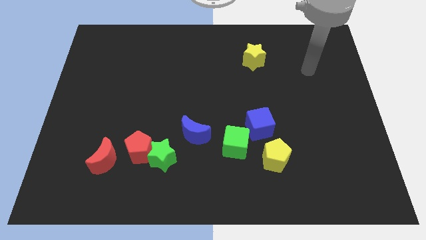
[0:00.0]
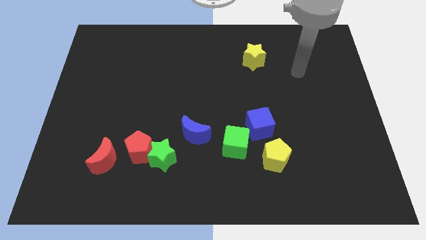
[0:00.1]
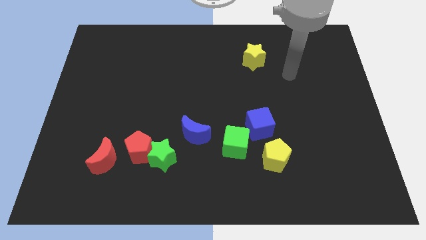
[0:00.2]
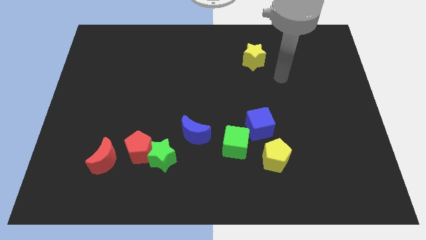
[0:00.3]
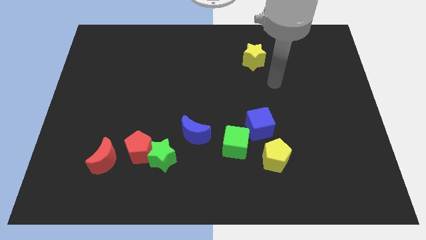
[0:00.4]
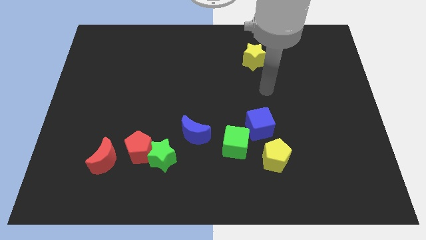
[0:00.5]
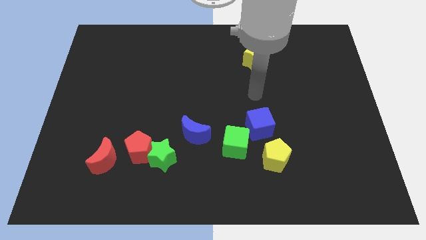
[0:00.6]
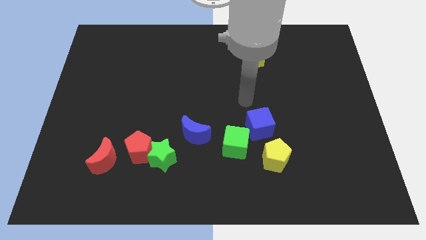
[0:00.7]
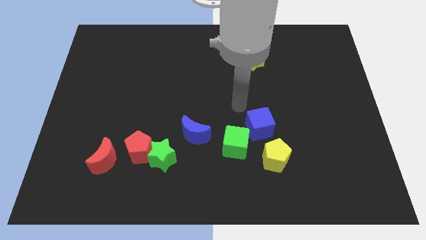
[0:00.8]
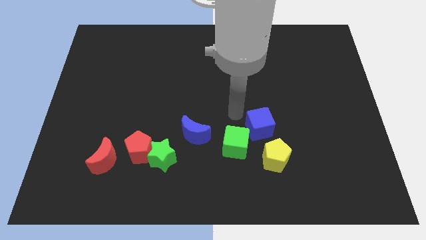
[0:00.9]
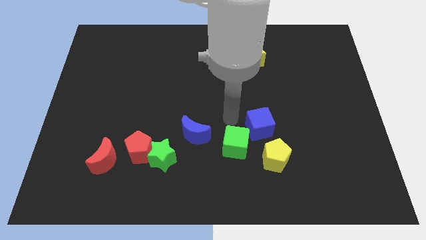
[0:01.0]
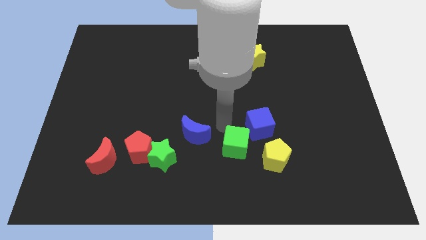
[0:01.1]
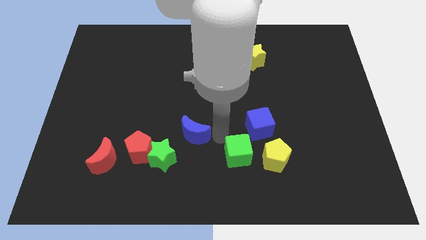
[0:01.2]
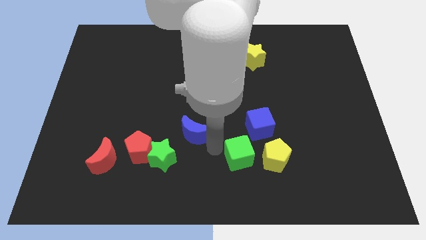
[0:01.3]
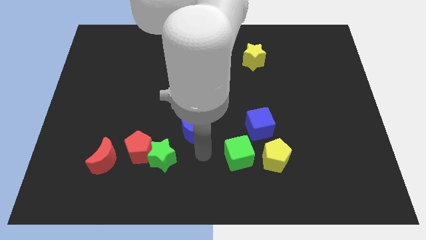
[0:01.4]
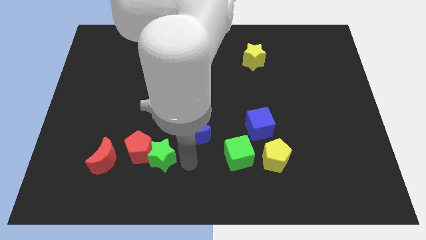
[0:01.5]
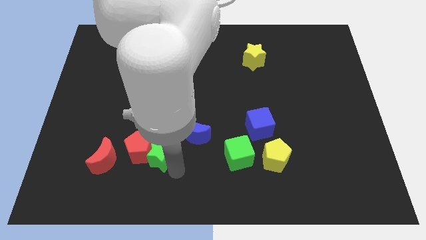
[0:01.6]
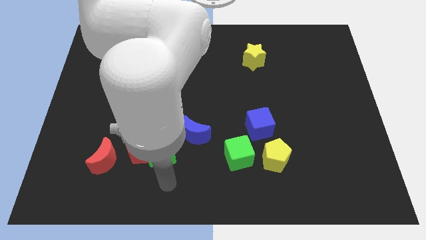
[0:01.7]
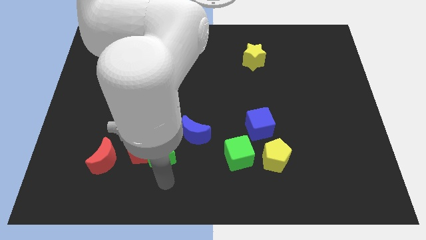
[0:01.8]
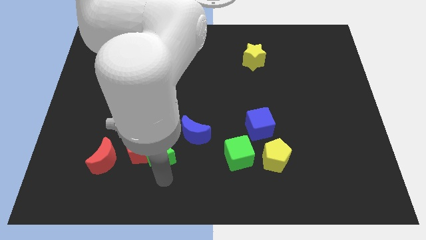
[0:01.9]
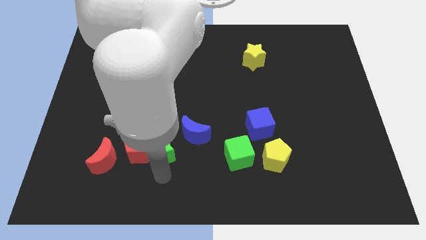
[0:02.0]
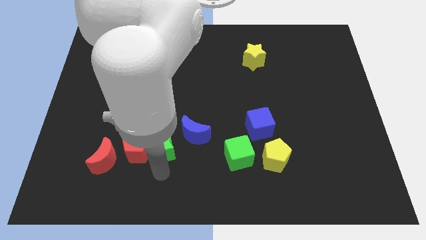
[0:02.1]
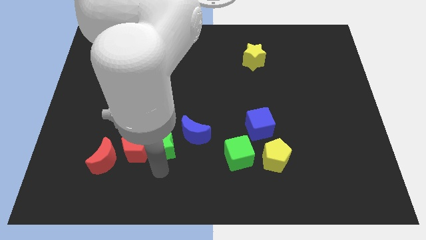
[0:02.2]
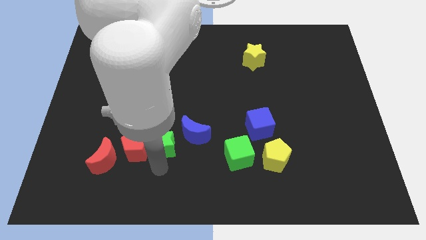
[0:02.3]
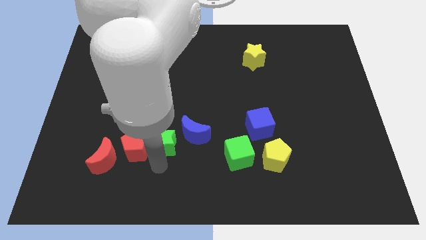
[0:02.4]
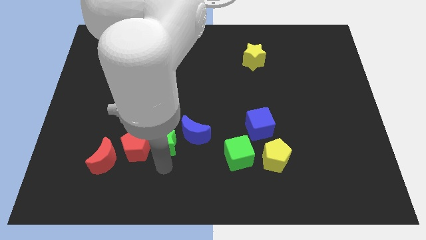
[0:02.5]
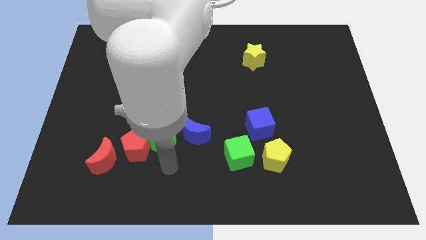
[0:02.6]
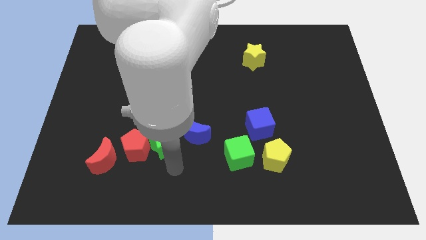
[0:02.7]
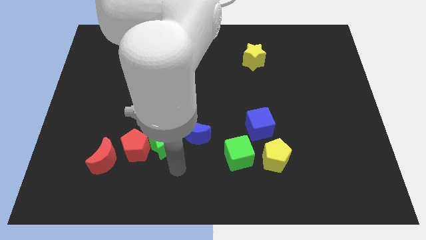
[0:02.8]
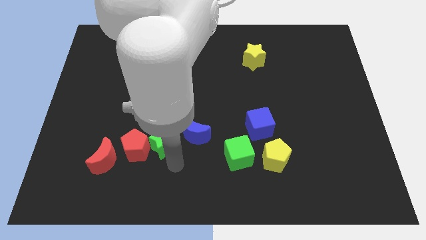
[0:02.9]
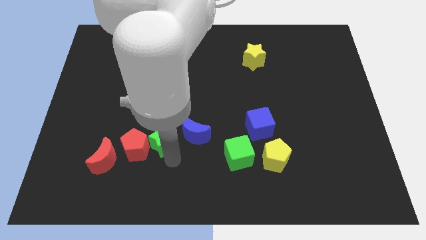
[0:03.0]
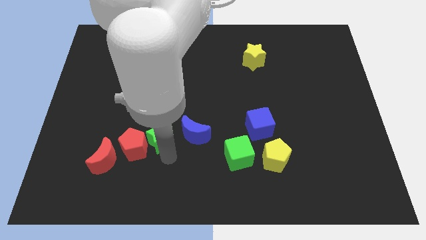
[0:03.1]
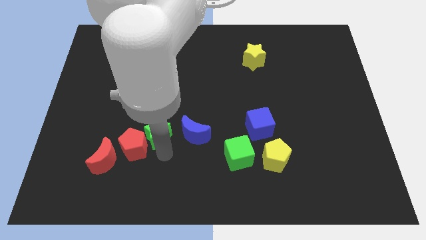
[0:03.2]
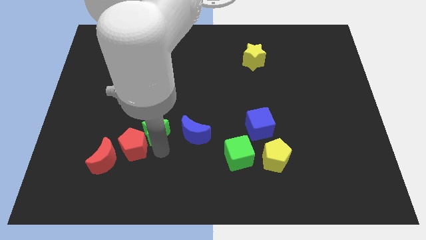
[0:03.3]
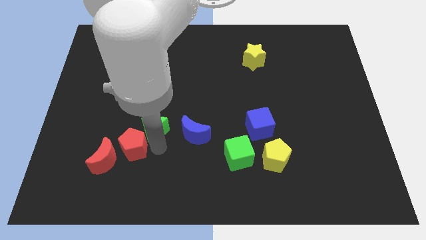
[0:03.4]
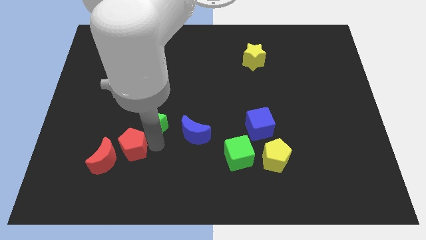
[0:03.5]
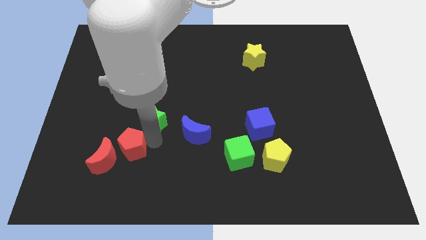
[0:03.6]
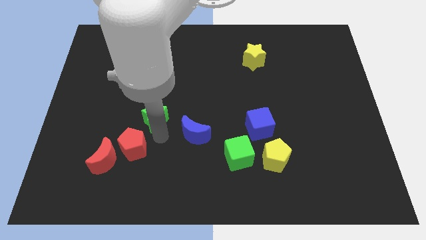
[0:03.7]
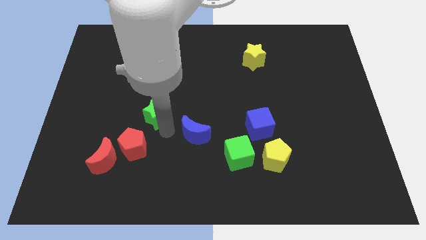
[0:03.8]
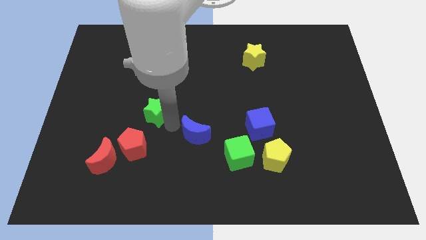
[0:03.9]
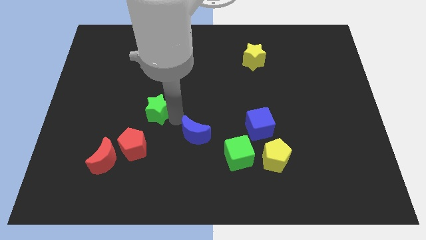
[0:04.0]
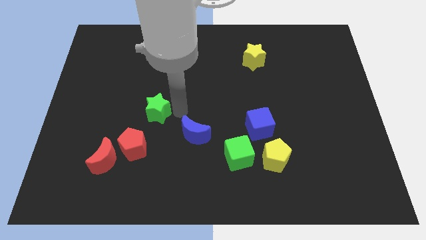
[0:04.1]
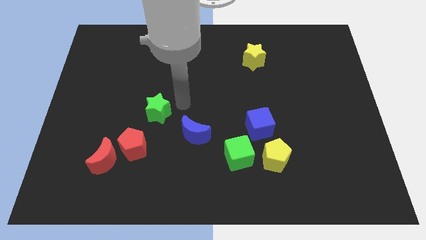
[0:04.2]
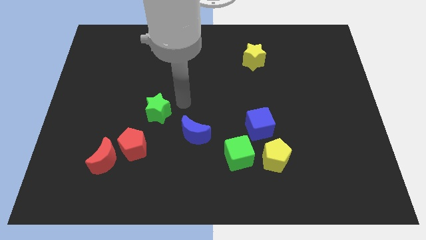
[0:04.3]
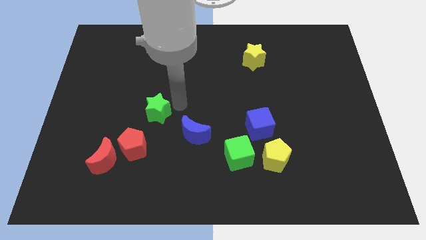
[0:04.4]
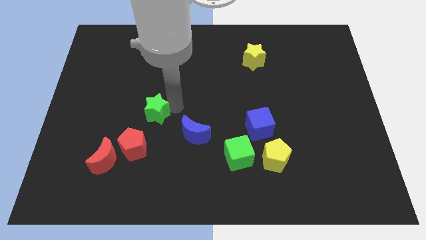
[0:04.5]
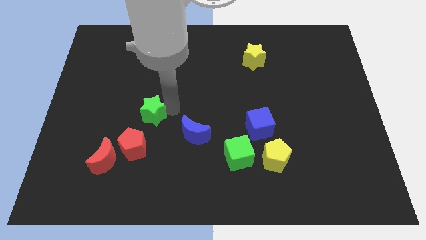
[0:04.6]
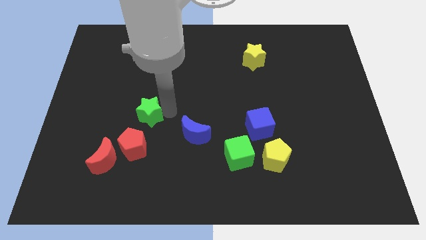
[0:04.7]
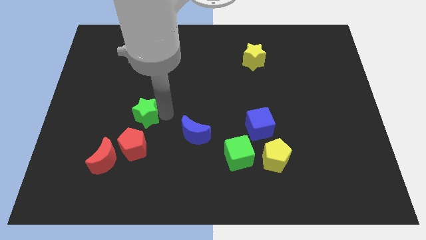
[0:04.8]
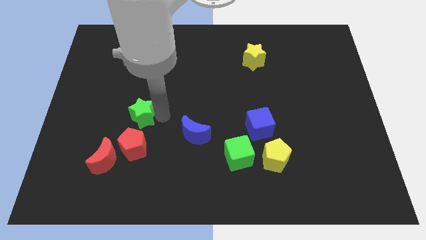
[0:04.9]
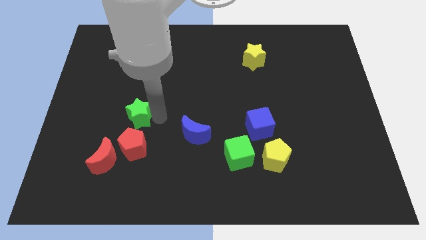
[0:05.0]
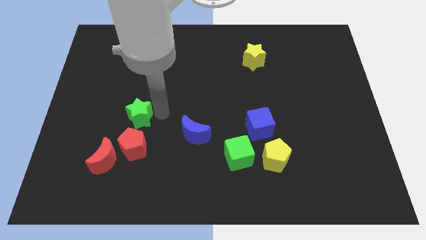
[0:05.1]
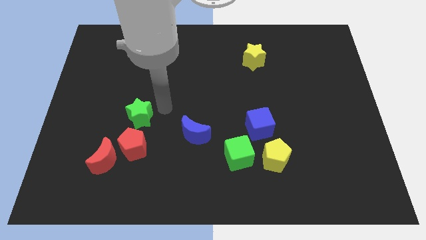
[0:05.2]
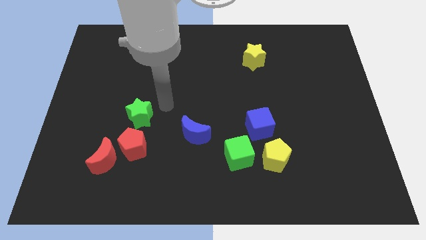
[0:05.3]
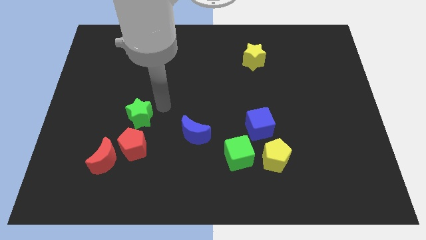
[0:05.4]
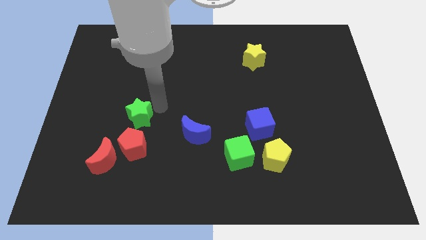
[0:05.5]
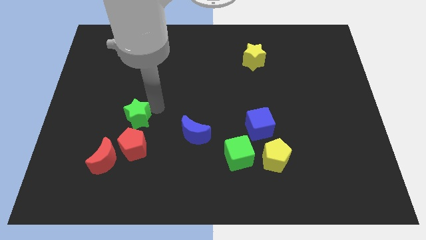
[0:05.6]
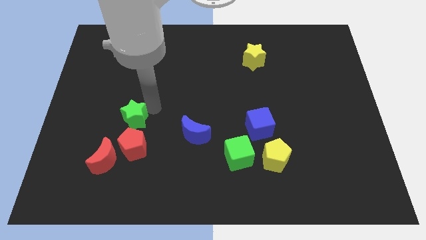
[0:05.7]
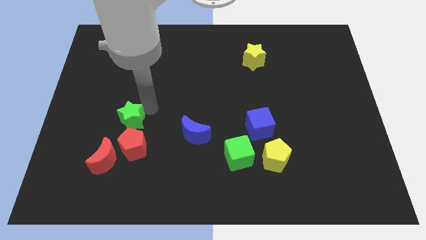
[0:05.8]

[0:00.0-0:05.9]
slide the green star to the top left side of the red pentagon

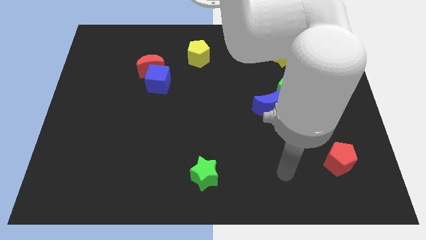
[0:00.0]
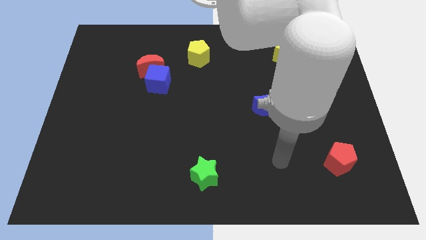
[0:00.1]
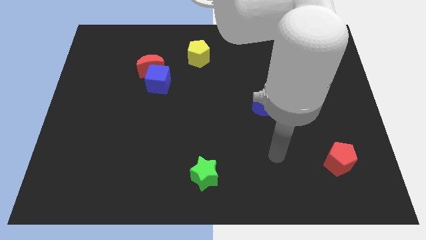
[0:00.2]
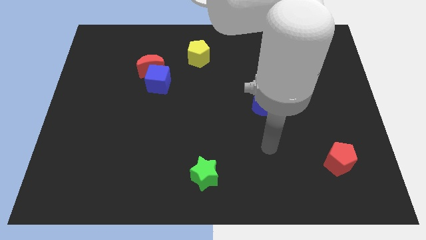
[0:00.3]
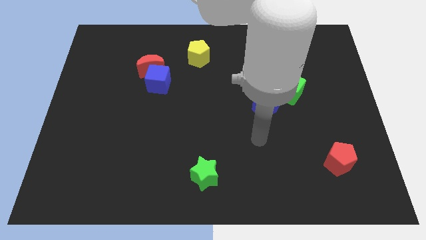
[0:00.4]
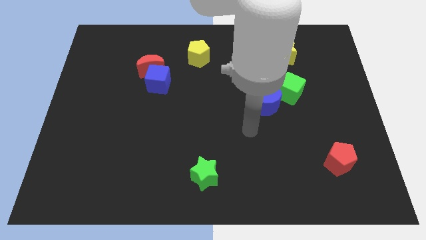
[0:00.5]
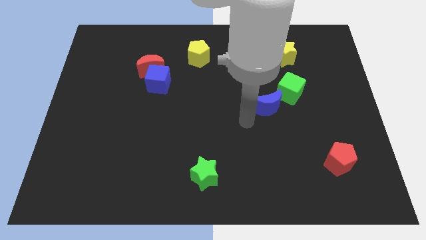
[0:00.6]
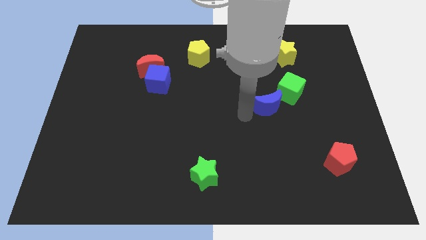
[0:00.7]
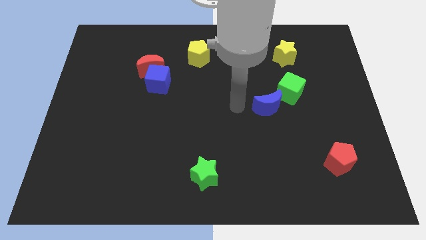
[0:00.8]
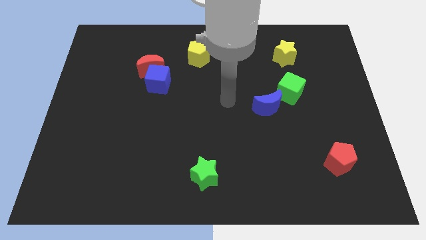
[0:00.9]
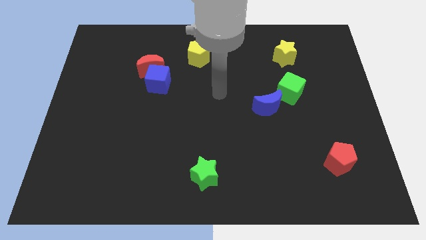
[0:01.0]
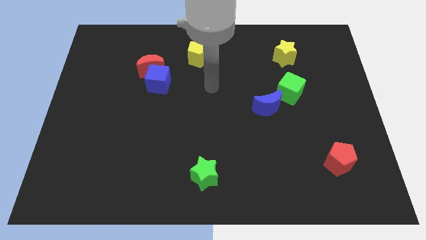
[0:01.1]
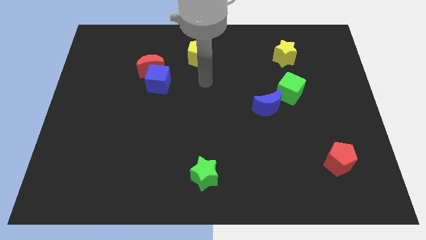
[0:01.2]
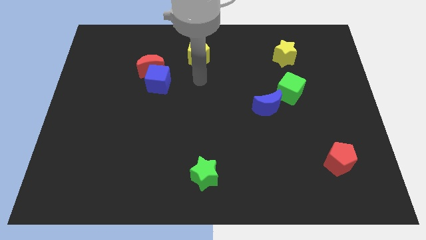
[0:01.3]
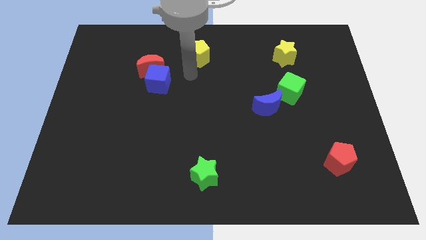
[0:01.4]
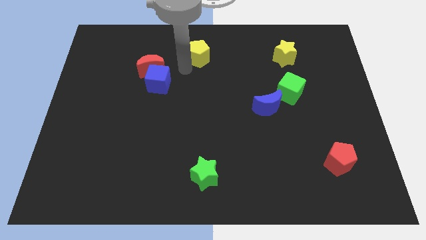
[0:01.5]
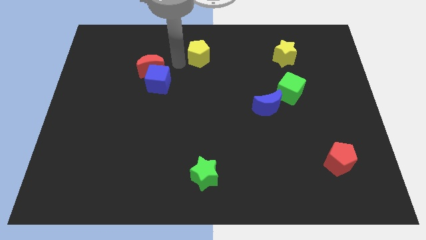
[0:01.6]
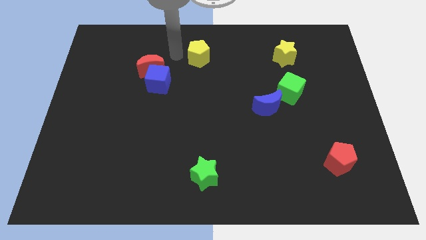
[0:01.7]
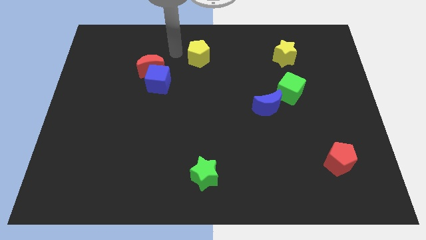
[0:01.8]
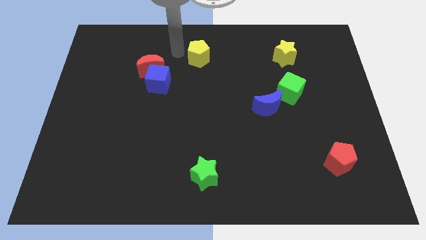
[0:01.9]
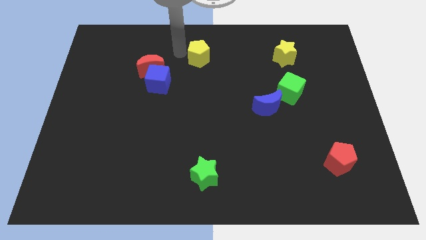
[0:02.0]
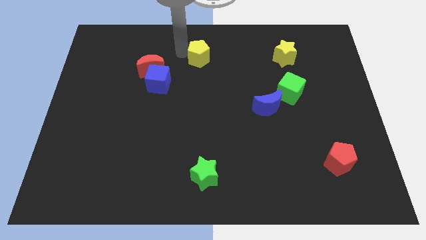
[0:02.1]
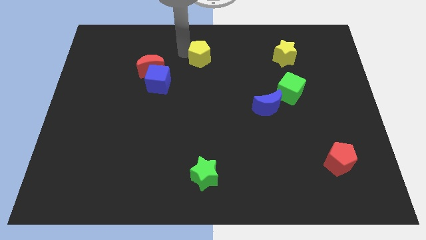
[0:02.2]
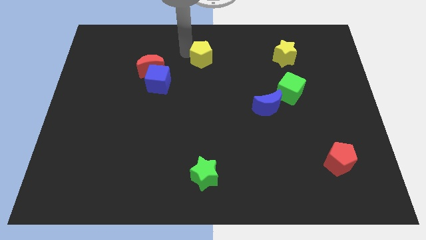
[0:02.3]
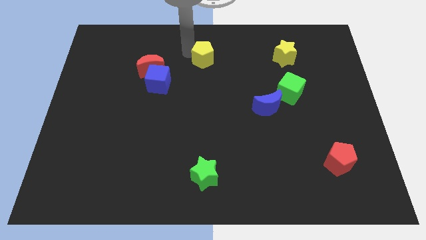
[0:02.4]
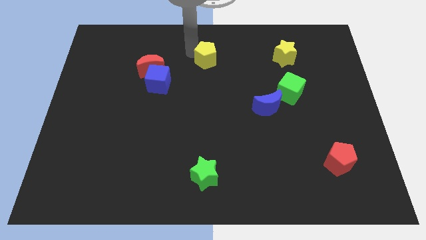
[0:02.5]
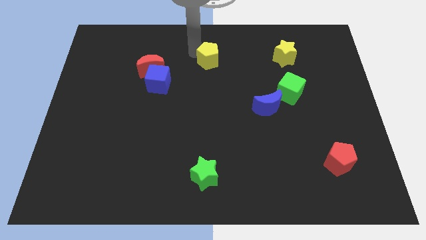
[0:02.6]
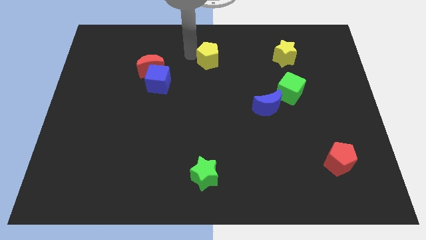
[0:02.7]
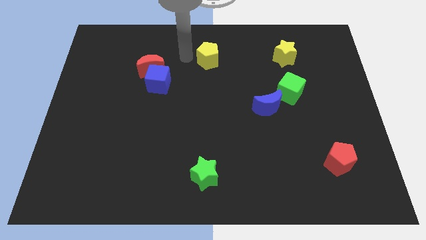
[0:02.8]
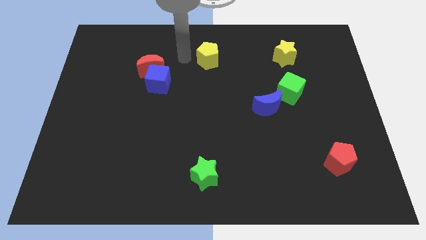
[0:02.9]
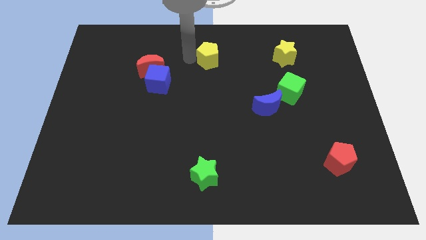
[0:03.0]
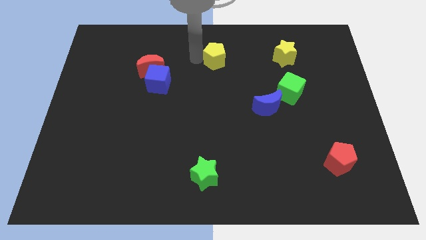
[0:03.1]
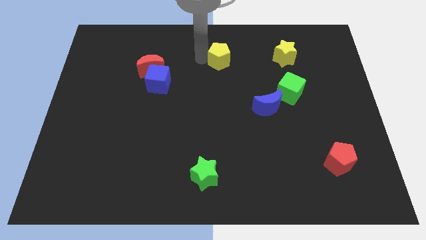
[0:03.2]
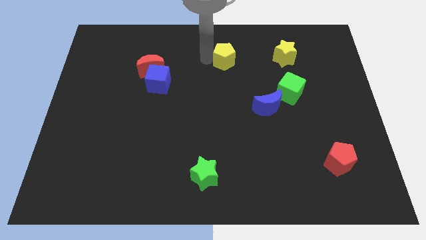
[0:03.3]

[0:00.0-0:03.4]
push the yellow pentagon just left of the yellow star
